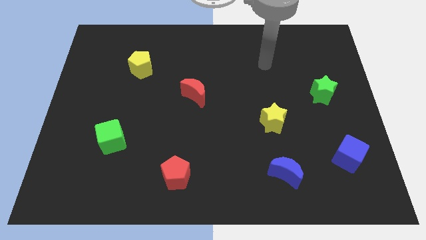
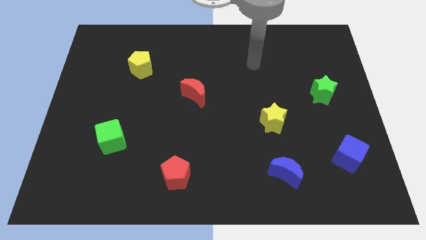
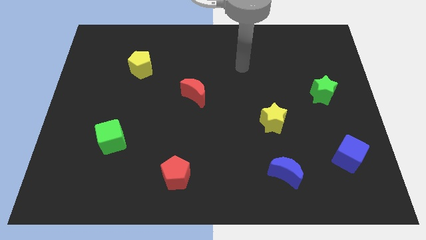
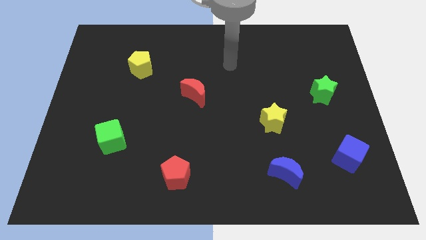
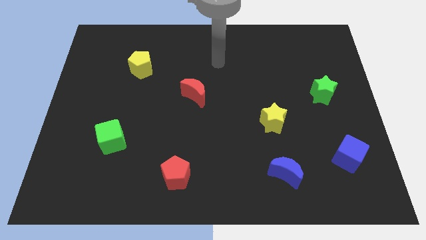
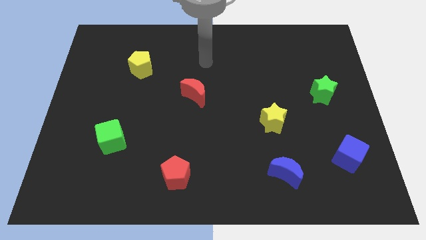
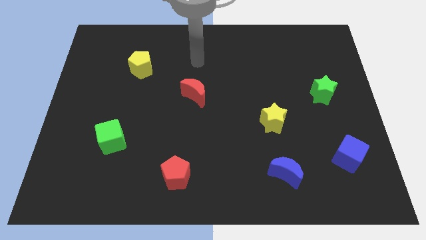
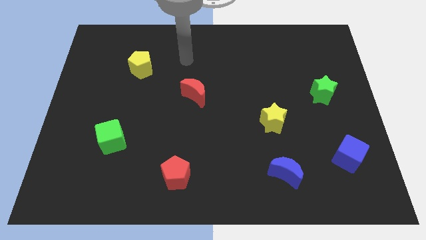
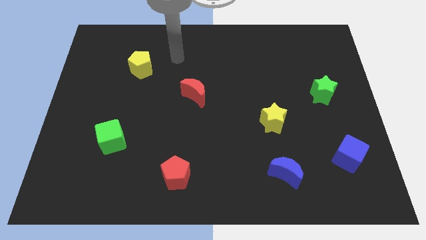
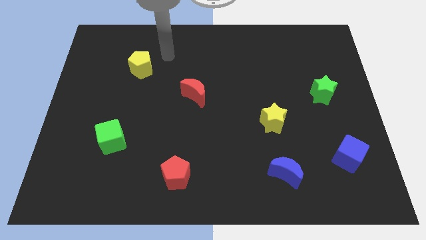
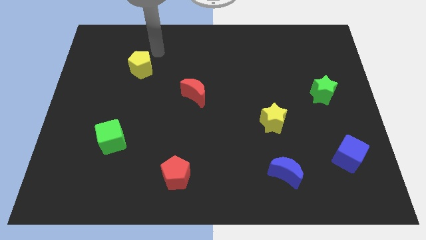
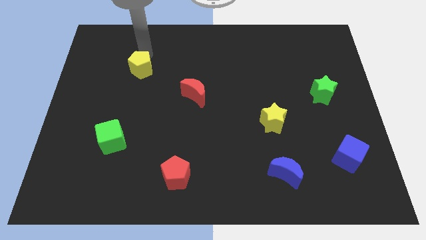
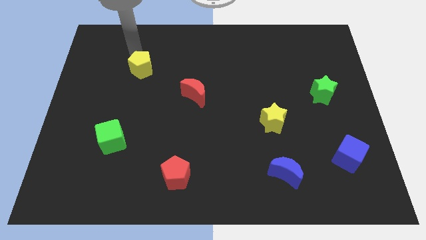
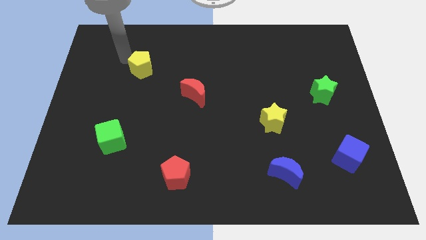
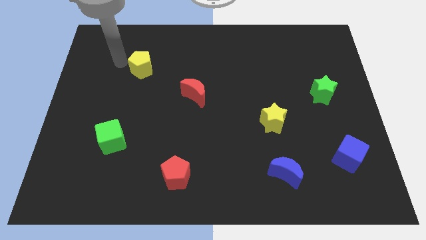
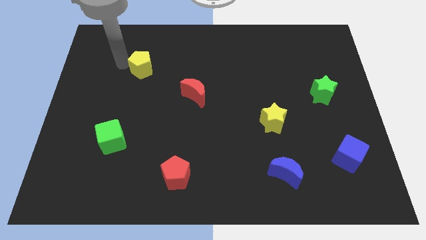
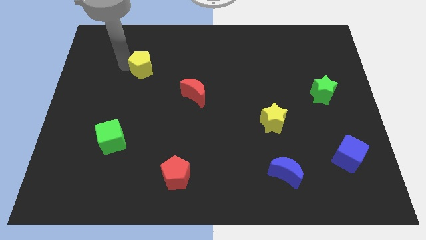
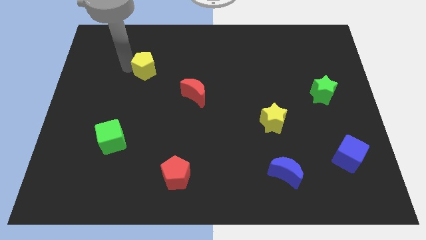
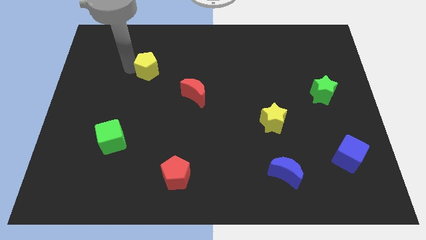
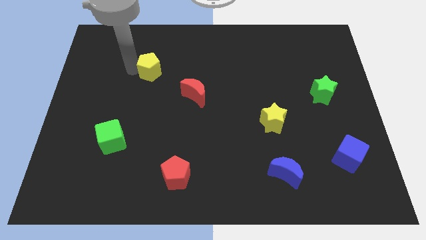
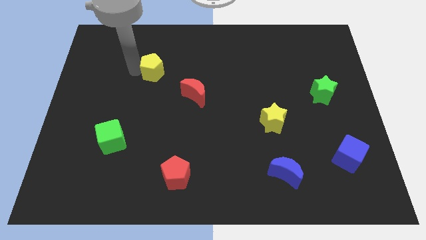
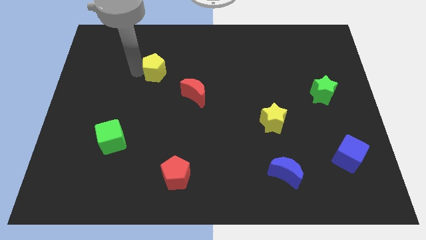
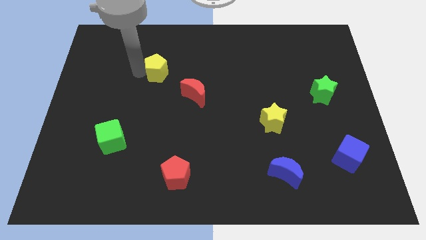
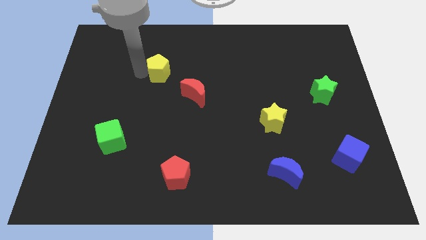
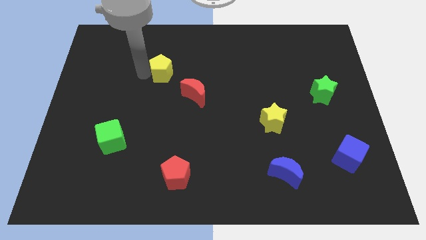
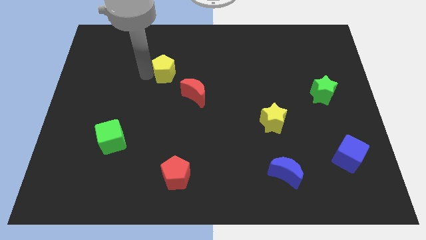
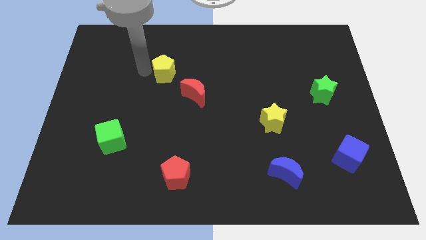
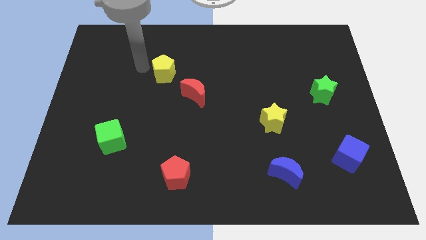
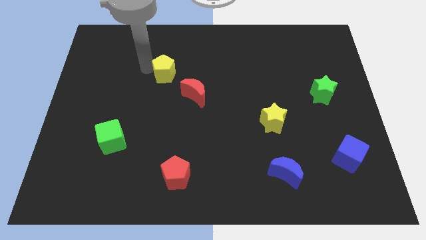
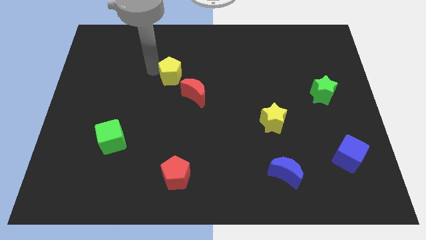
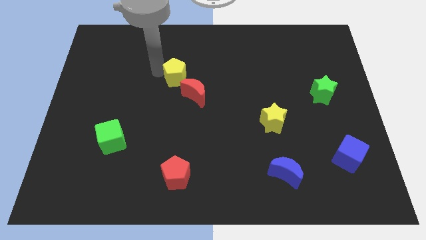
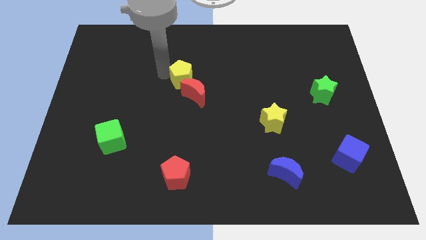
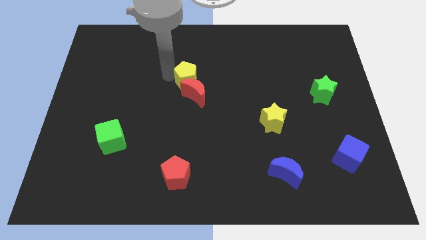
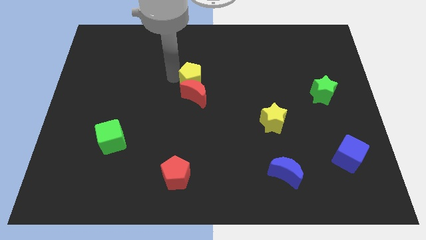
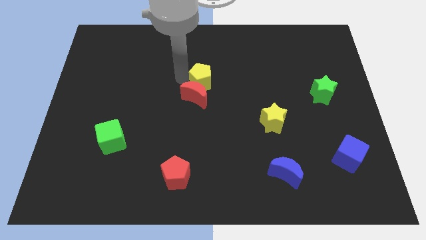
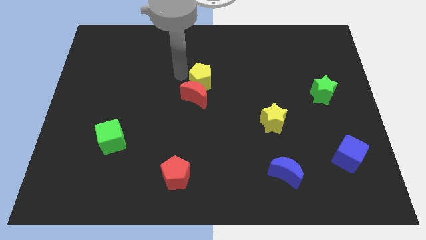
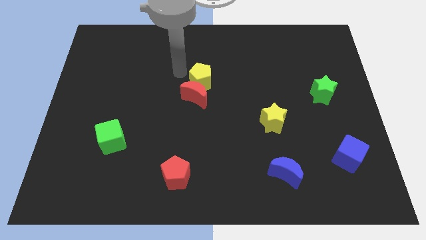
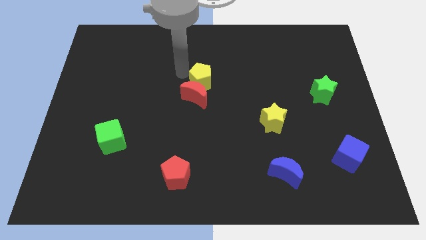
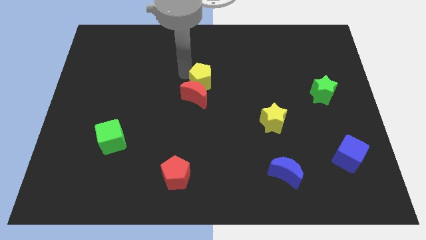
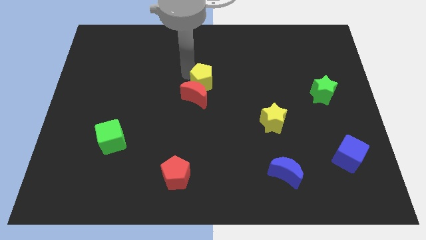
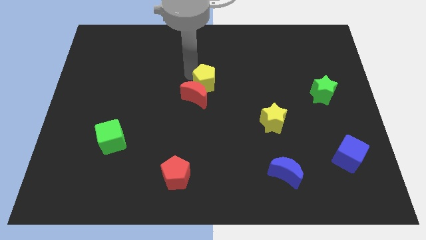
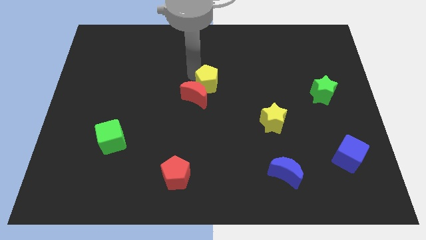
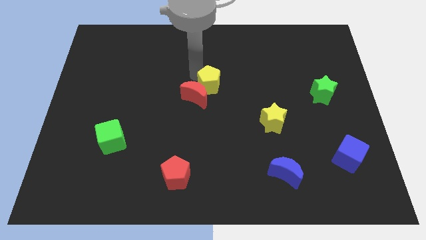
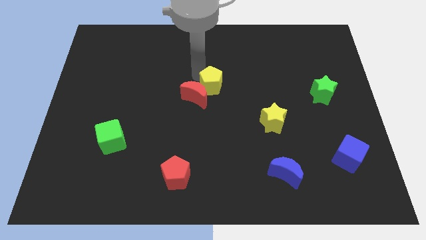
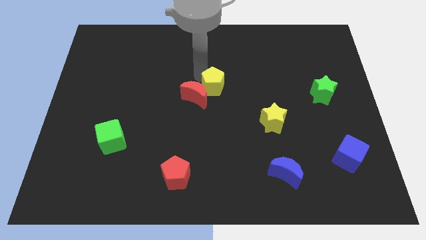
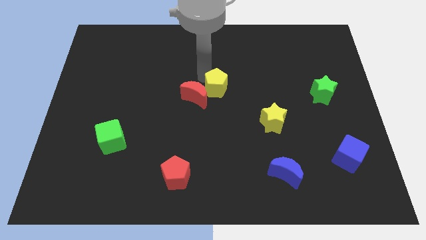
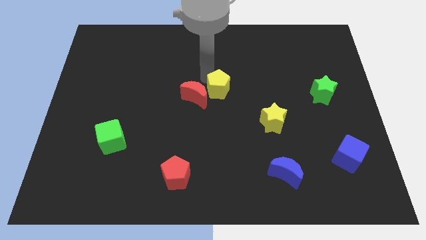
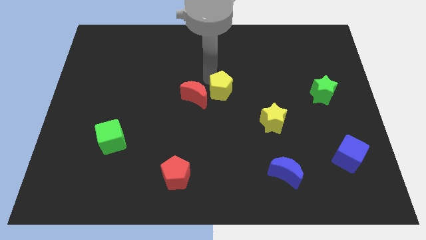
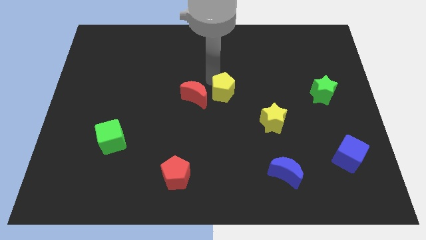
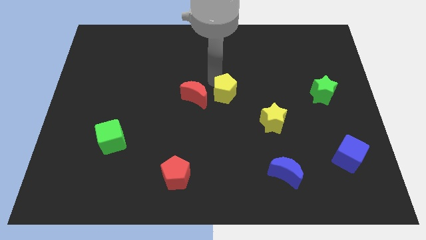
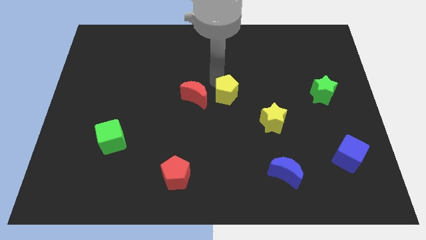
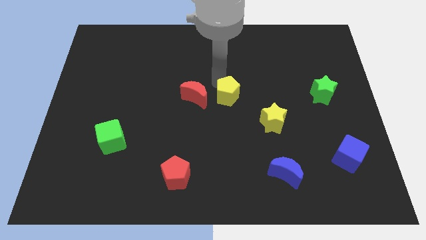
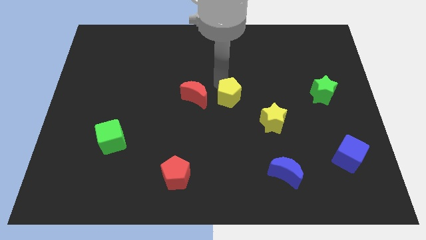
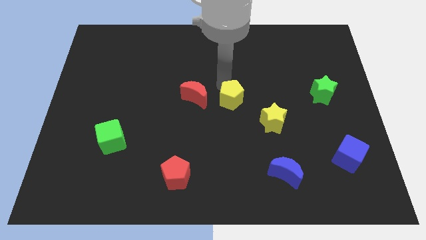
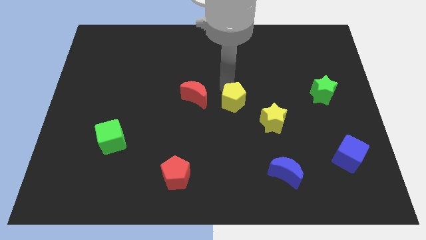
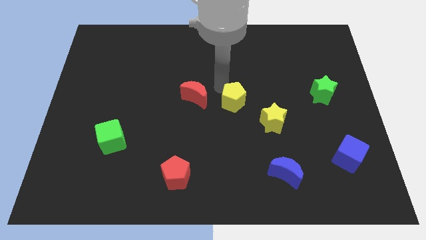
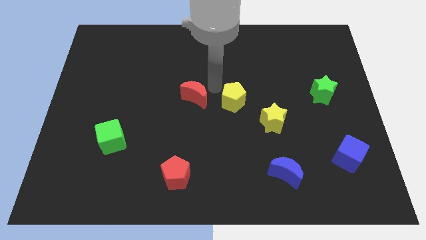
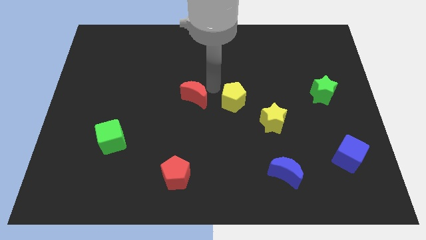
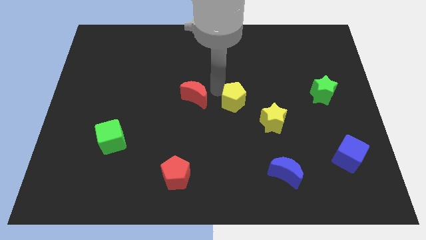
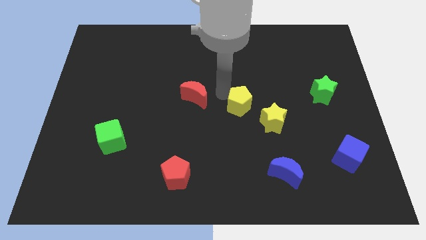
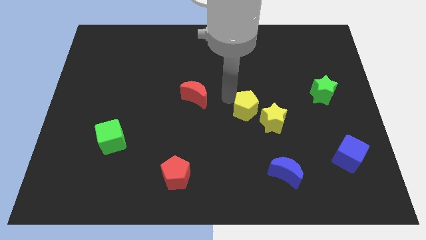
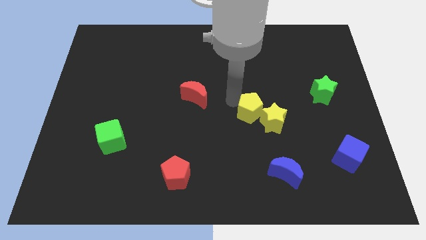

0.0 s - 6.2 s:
put the yellow pentagon close to the yellow star

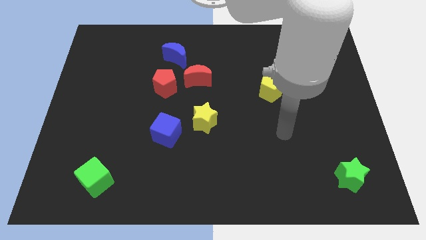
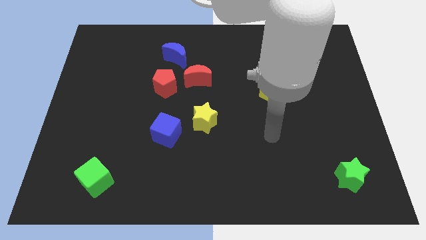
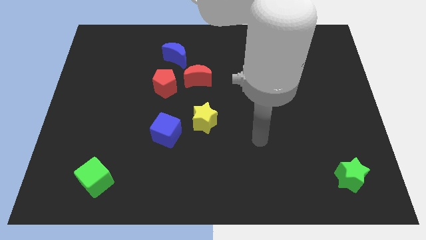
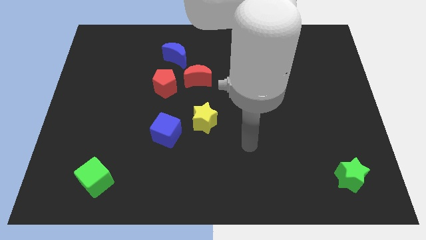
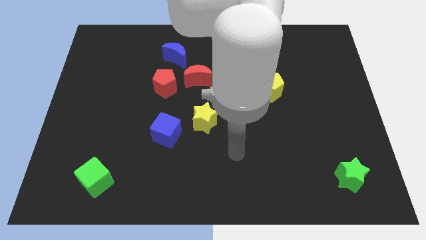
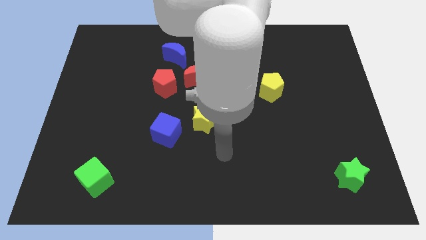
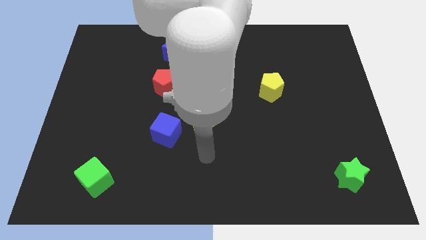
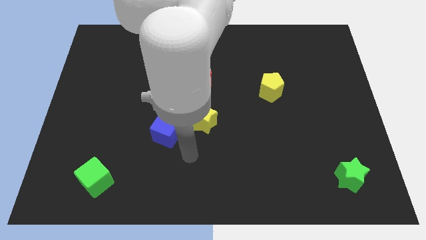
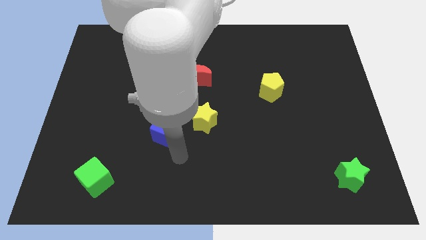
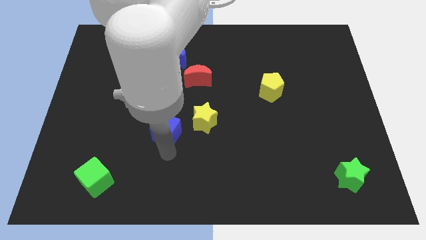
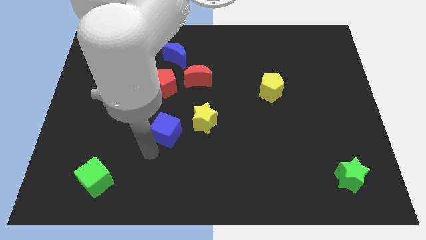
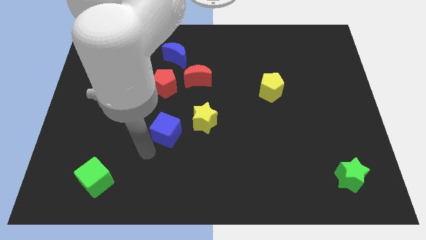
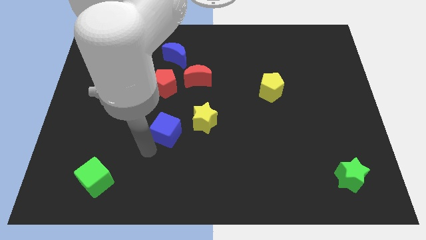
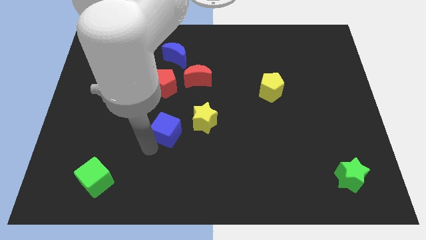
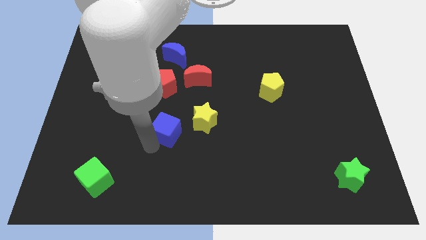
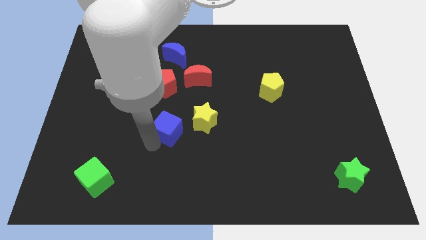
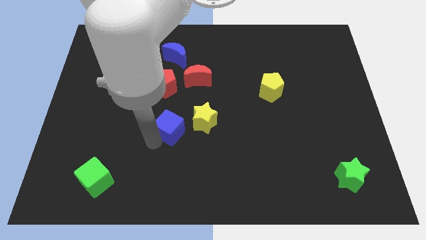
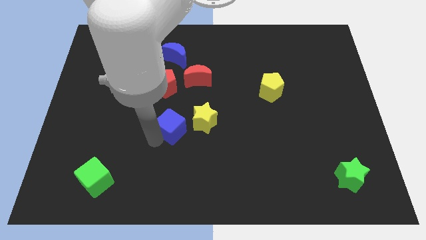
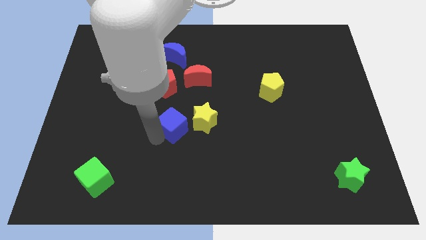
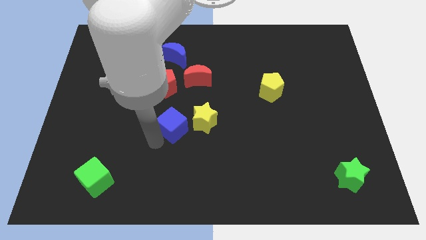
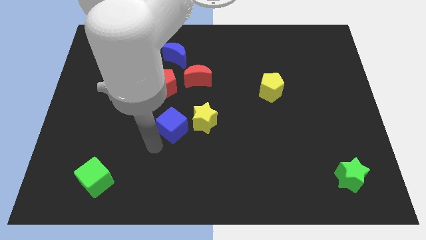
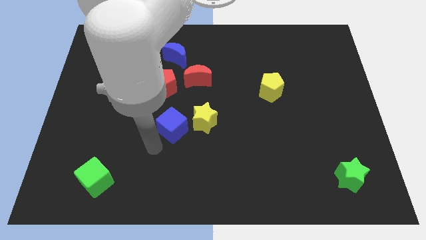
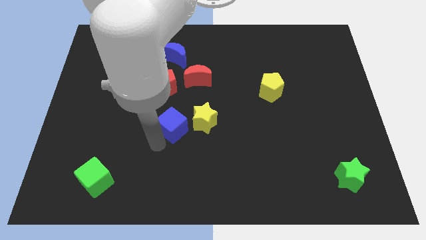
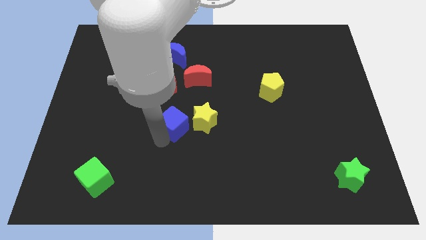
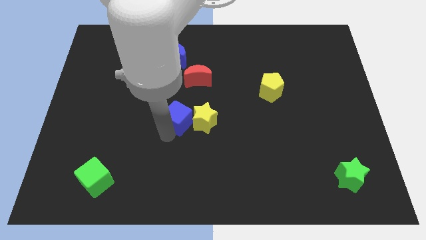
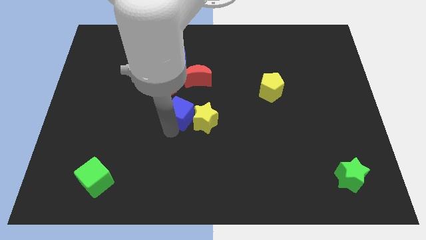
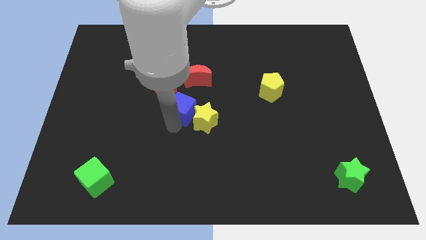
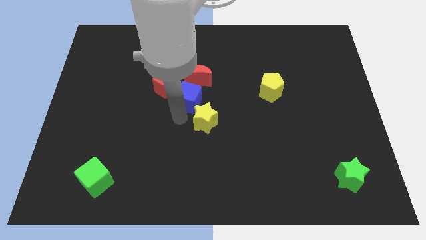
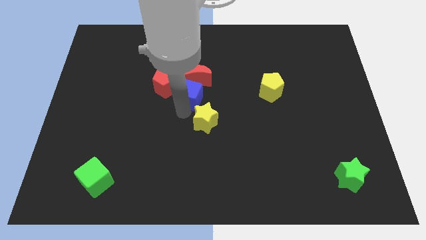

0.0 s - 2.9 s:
slide the blue cube to the red moon
